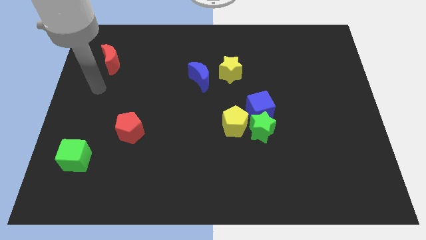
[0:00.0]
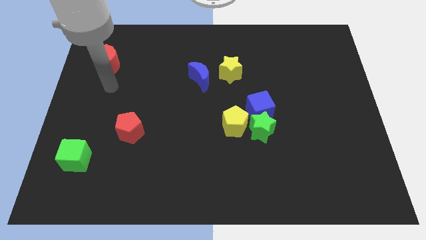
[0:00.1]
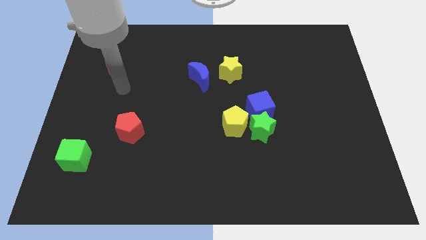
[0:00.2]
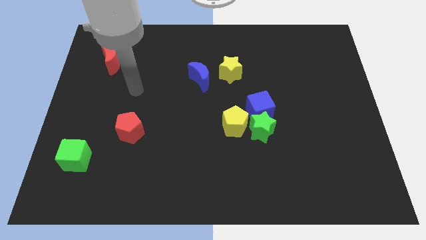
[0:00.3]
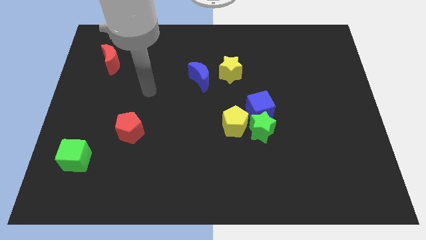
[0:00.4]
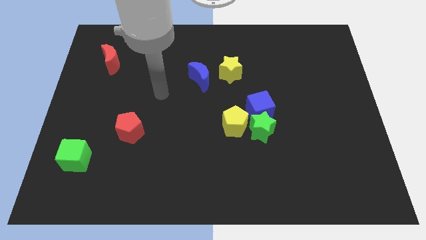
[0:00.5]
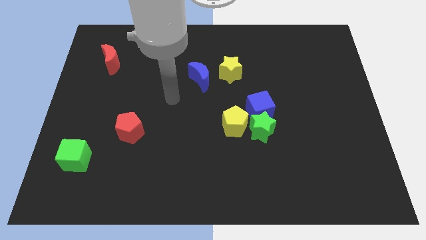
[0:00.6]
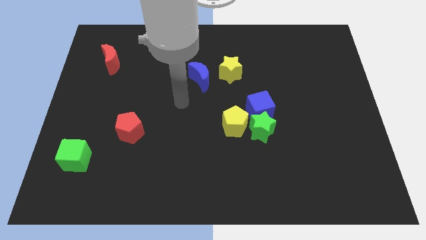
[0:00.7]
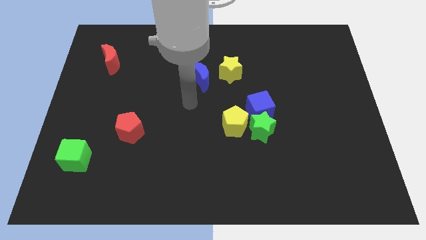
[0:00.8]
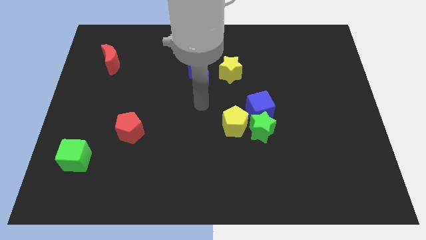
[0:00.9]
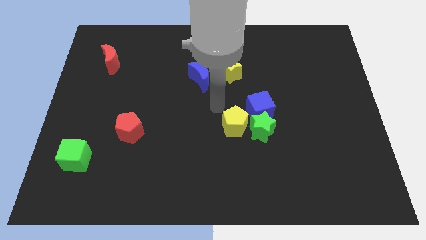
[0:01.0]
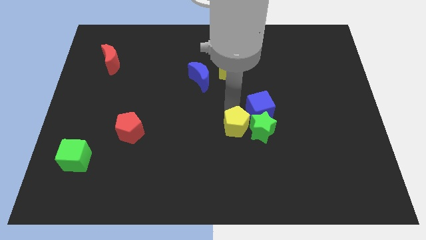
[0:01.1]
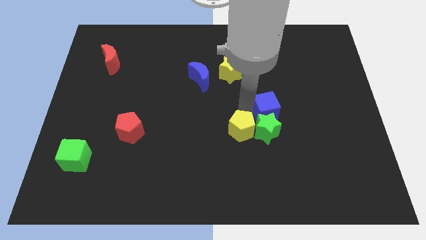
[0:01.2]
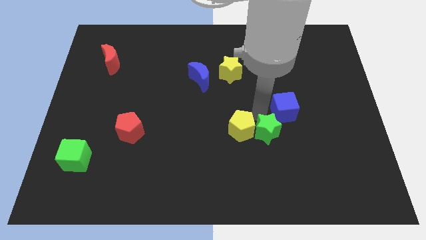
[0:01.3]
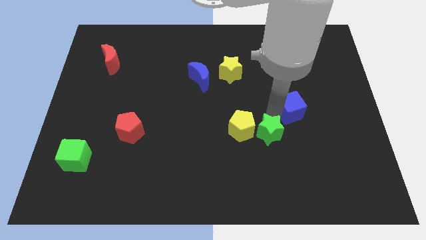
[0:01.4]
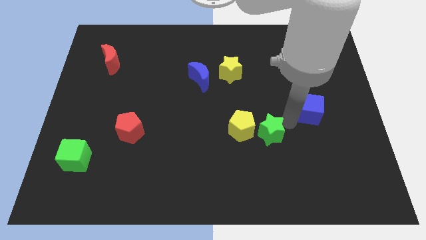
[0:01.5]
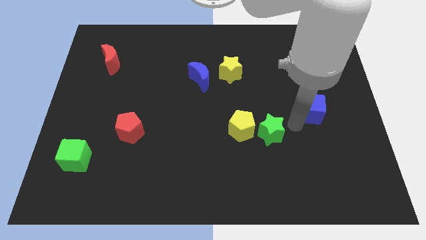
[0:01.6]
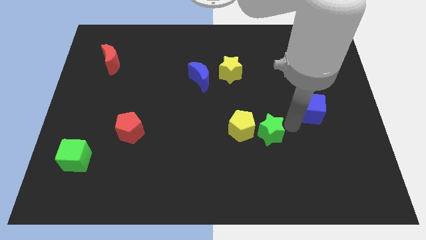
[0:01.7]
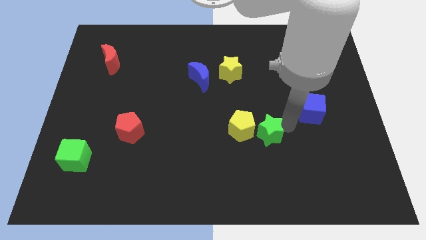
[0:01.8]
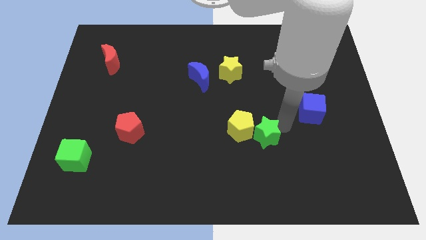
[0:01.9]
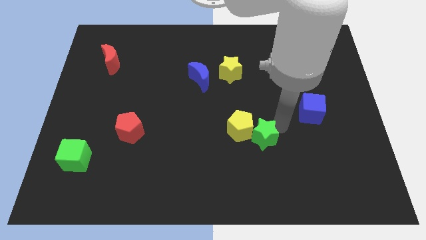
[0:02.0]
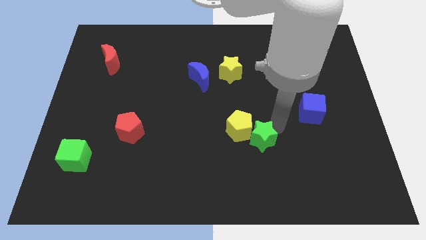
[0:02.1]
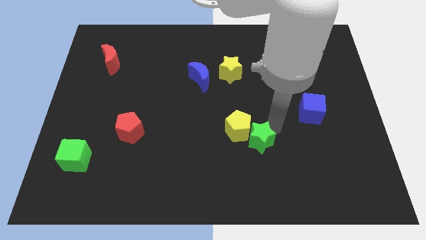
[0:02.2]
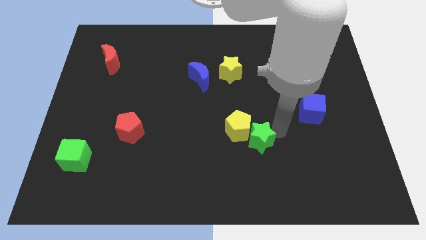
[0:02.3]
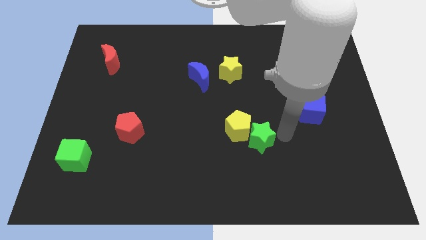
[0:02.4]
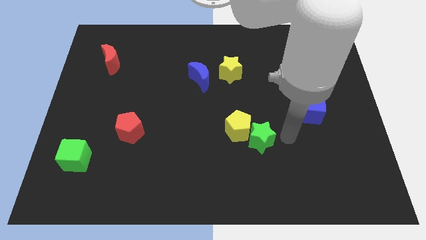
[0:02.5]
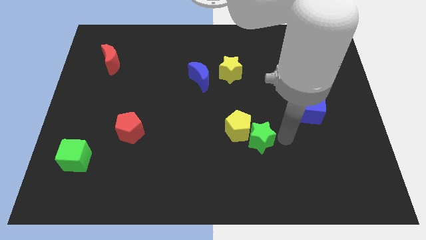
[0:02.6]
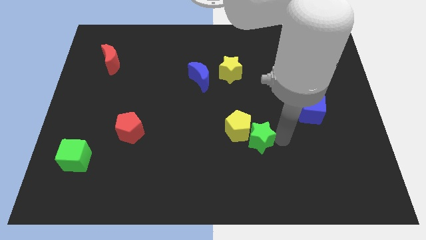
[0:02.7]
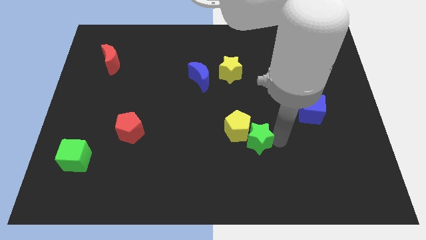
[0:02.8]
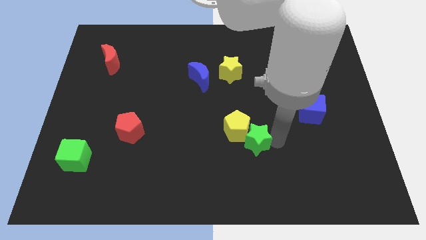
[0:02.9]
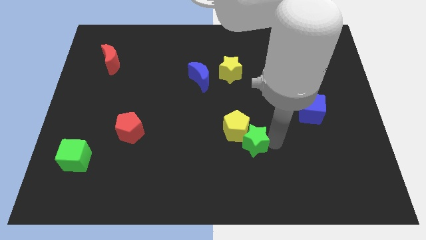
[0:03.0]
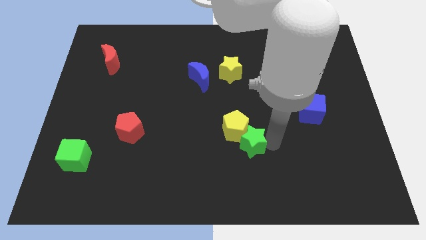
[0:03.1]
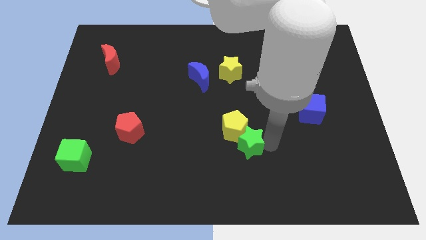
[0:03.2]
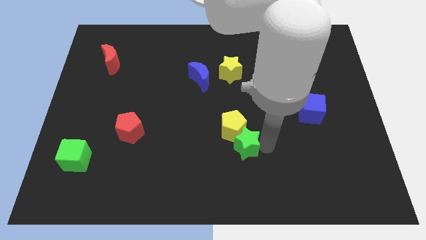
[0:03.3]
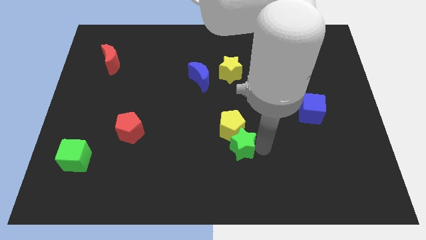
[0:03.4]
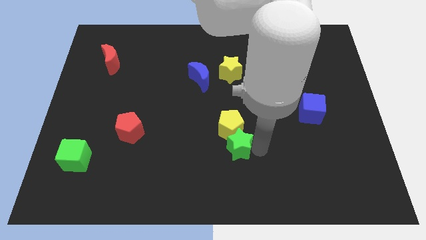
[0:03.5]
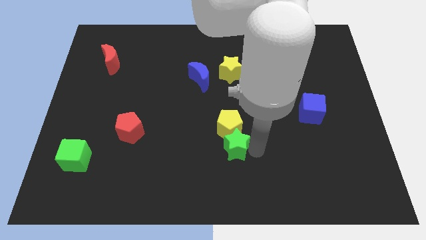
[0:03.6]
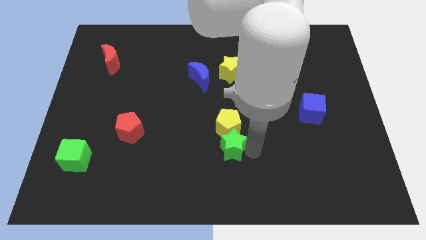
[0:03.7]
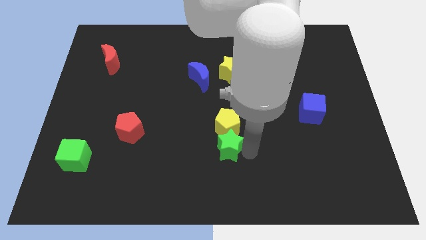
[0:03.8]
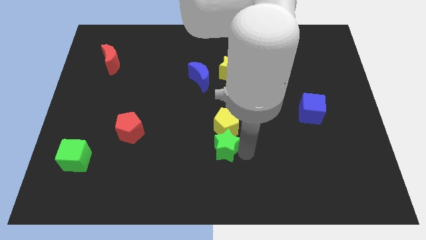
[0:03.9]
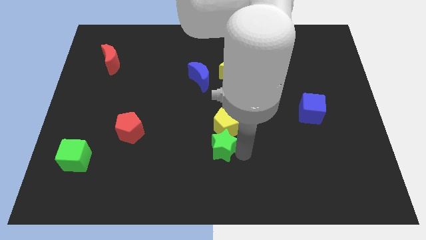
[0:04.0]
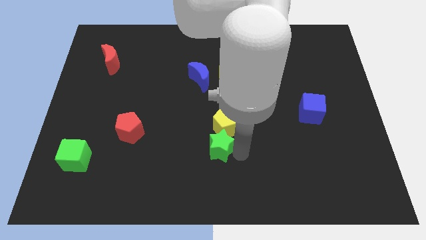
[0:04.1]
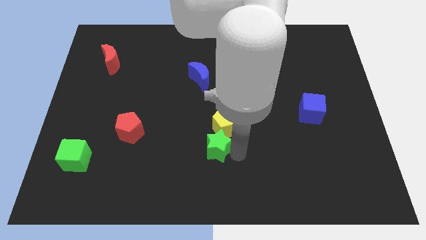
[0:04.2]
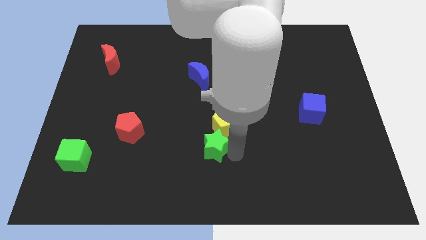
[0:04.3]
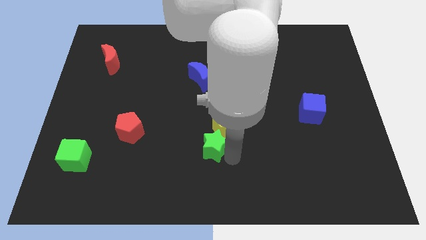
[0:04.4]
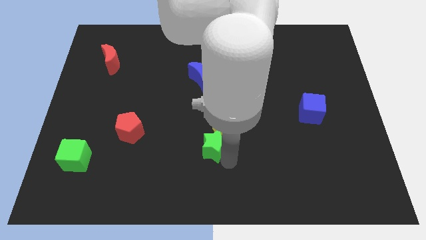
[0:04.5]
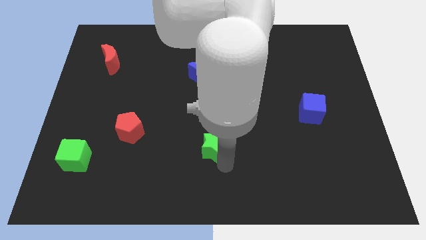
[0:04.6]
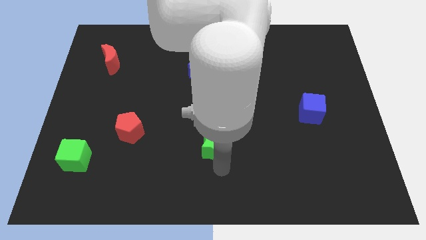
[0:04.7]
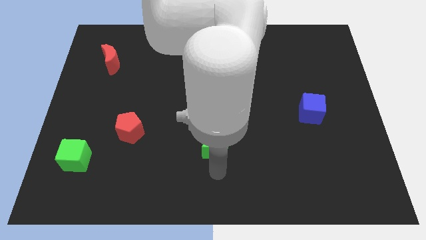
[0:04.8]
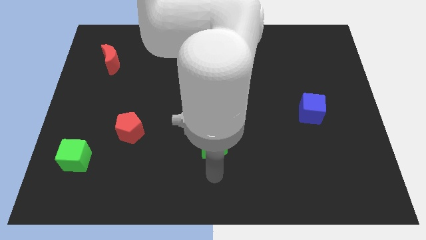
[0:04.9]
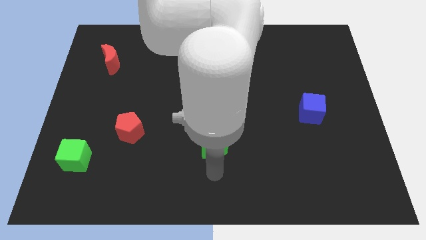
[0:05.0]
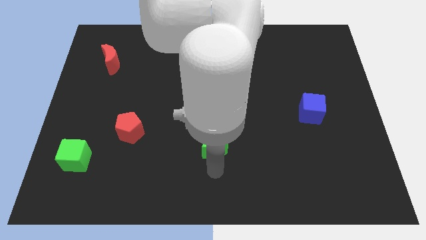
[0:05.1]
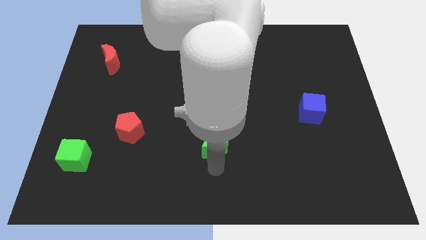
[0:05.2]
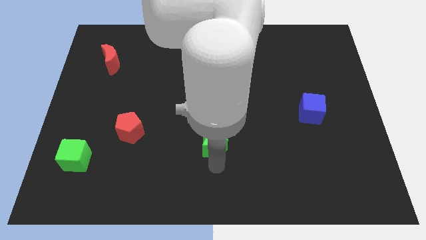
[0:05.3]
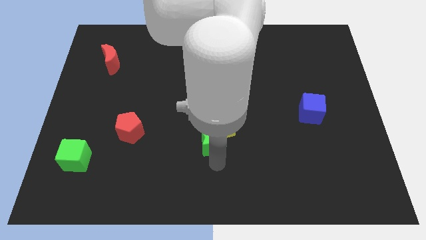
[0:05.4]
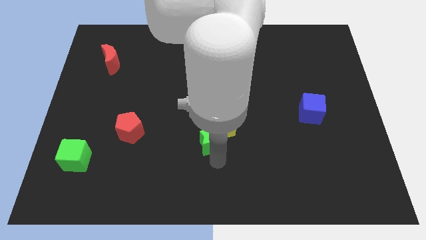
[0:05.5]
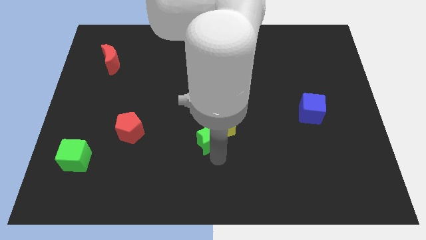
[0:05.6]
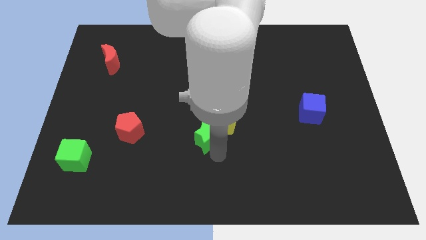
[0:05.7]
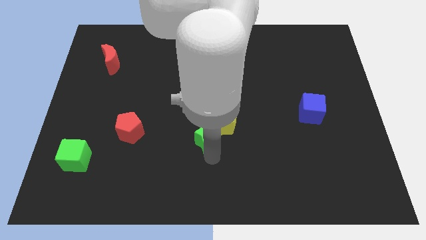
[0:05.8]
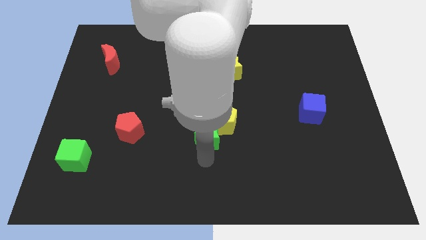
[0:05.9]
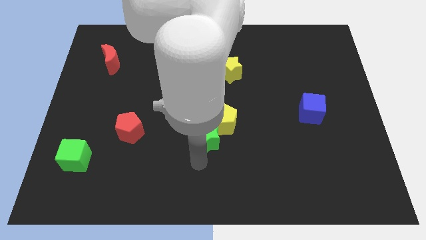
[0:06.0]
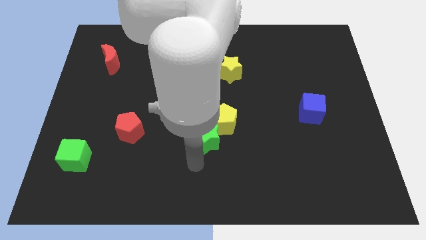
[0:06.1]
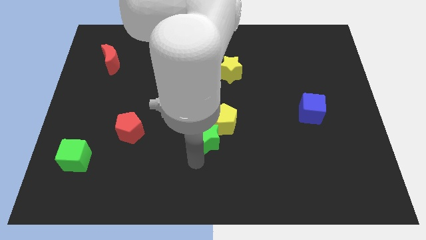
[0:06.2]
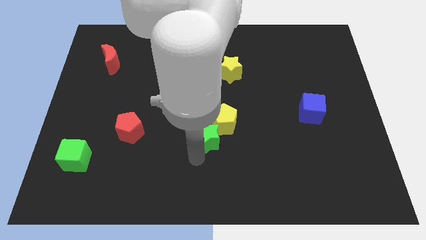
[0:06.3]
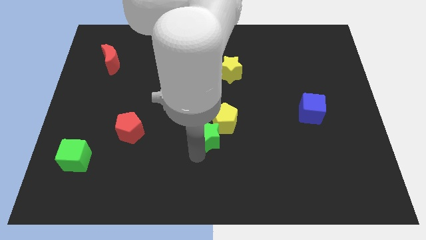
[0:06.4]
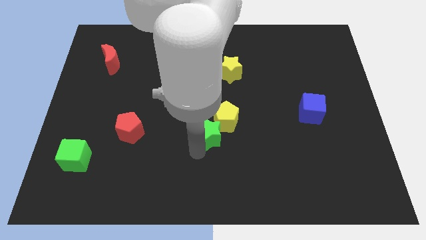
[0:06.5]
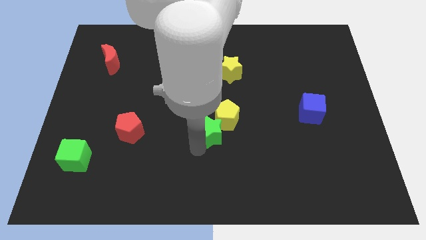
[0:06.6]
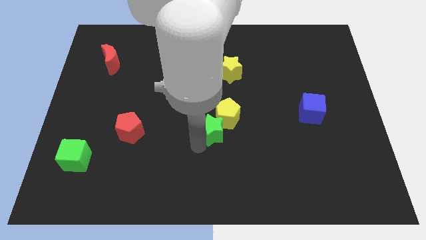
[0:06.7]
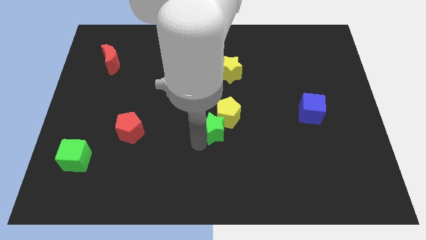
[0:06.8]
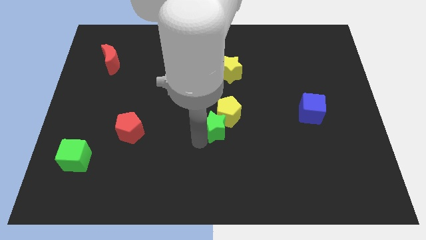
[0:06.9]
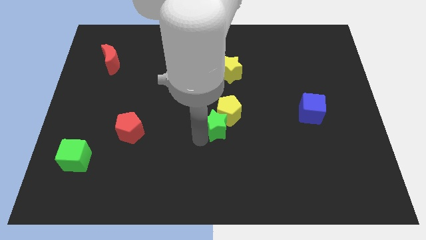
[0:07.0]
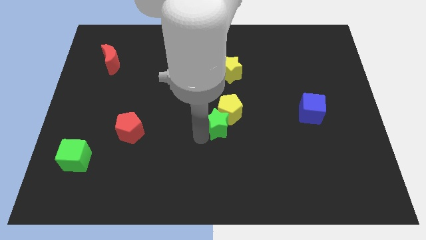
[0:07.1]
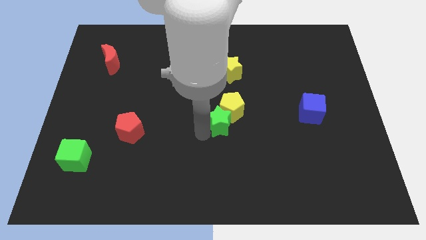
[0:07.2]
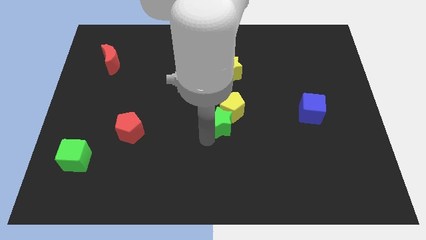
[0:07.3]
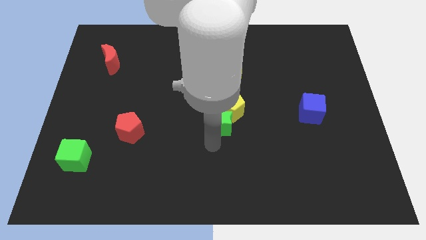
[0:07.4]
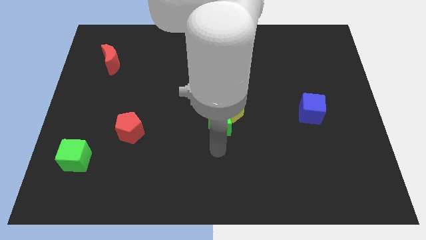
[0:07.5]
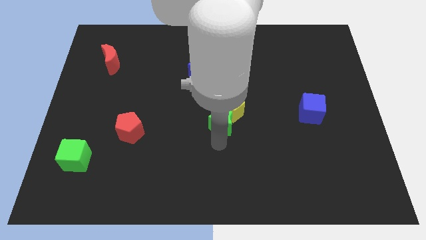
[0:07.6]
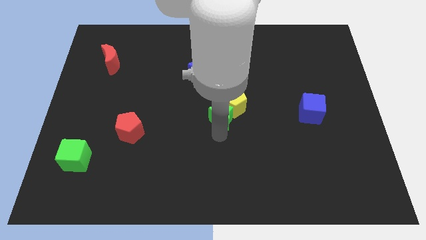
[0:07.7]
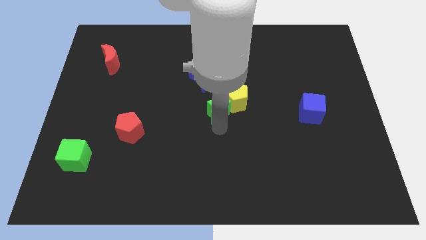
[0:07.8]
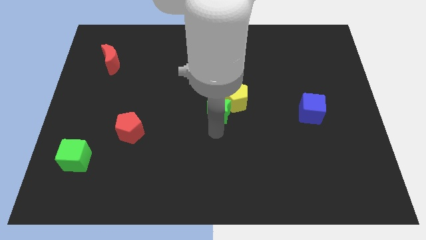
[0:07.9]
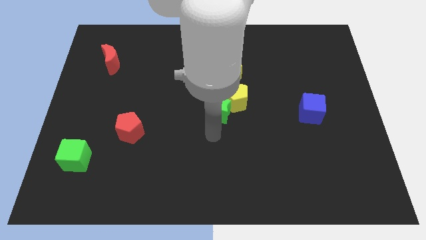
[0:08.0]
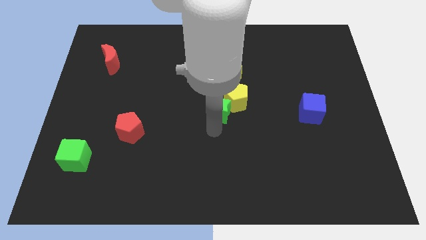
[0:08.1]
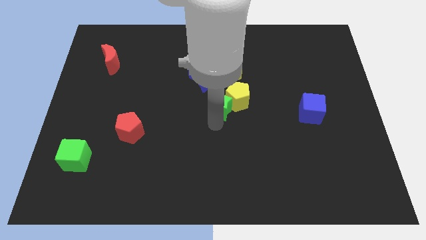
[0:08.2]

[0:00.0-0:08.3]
push the green star to the bottom right of the blue moon
